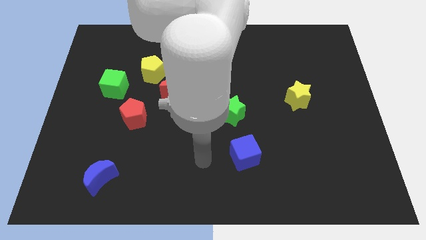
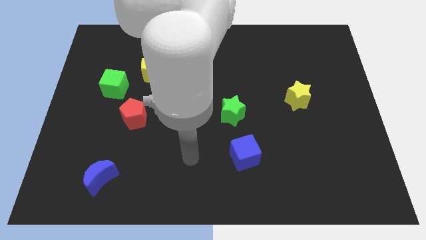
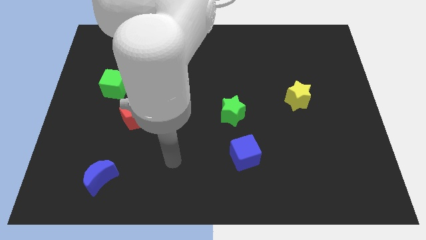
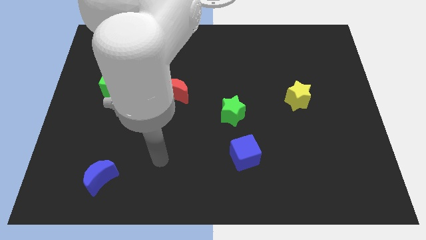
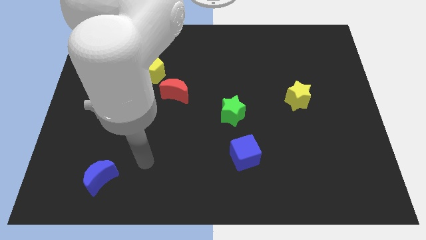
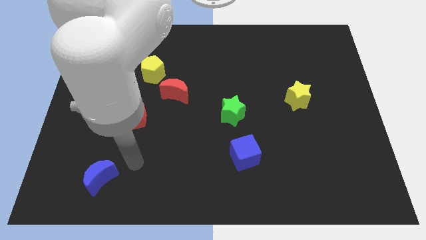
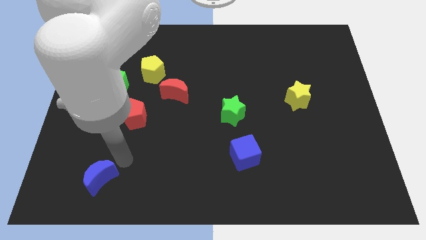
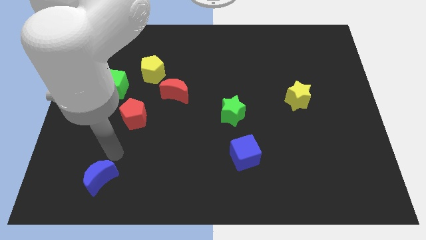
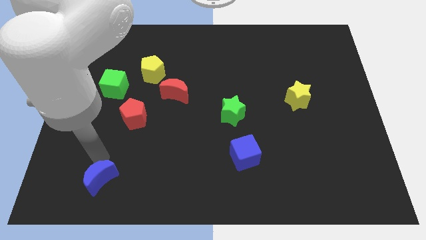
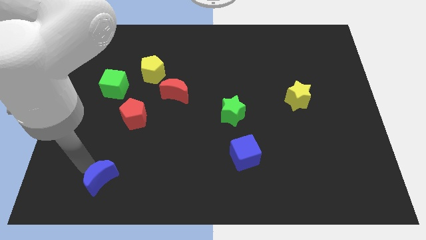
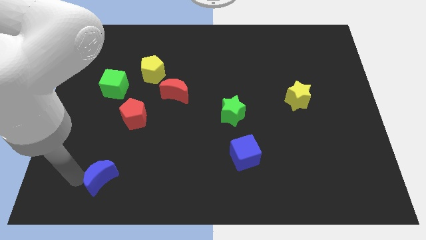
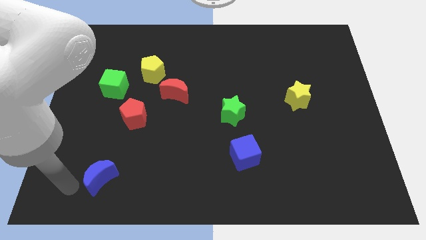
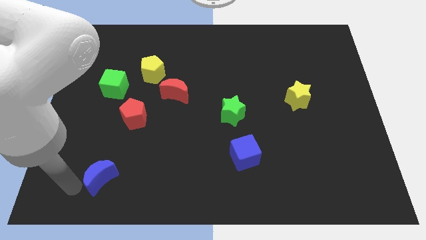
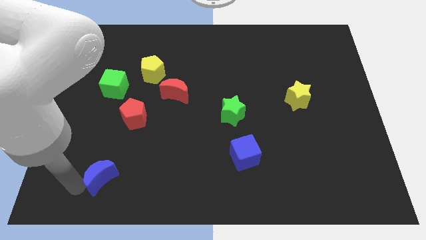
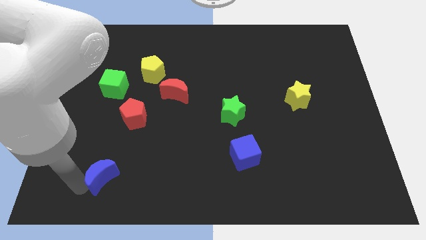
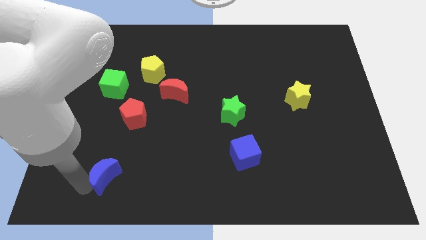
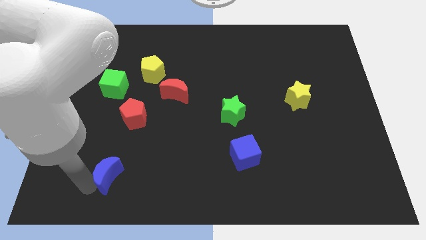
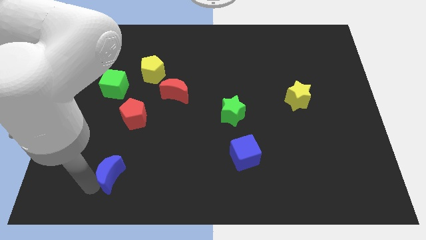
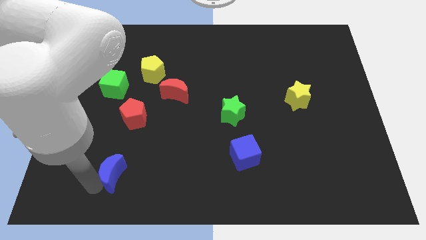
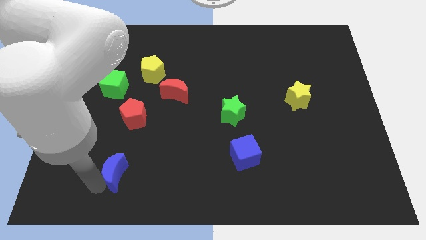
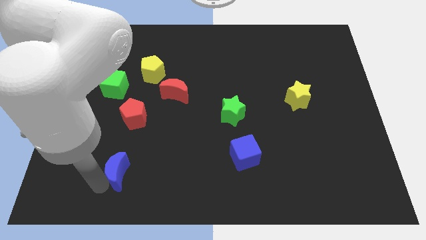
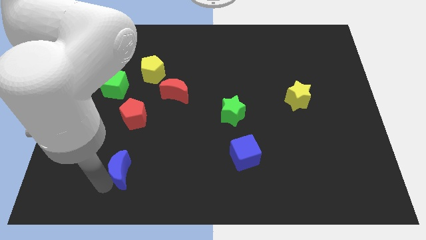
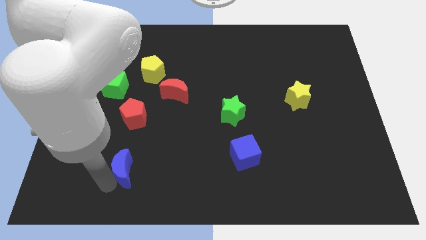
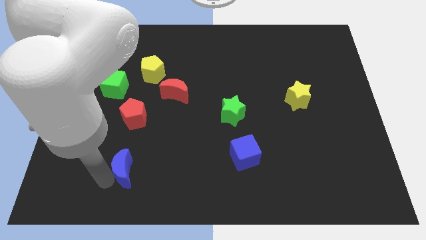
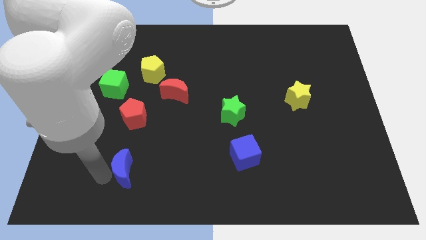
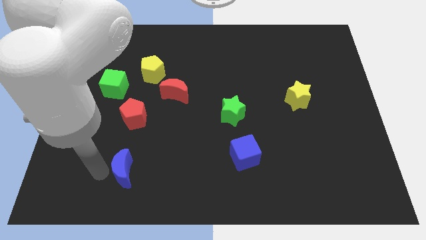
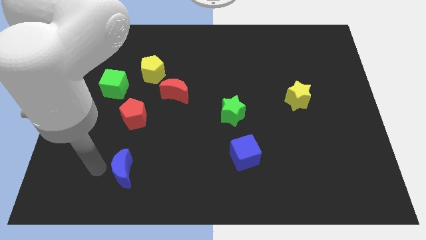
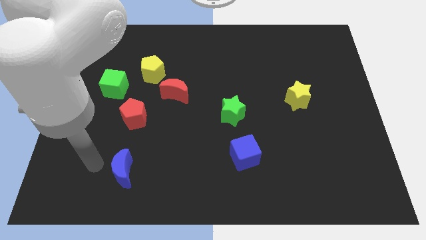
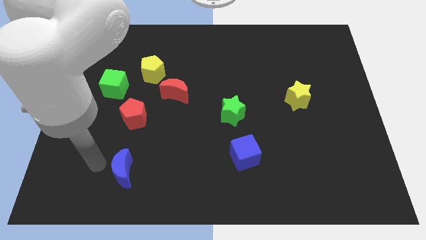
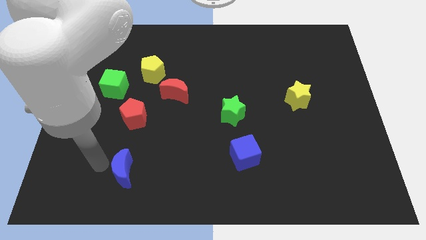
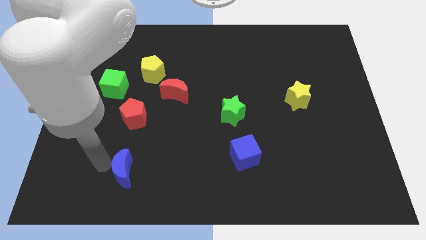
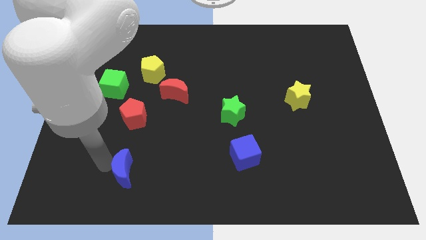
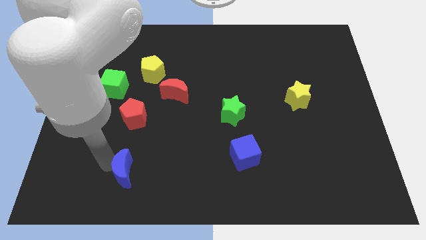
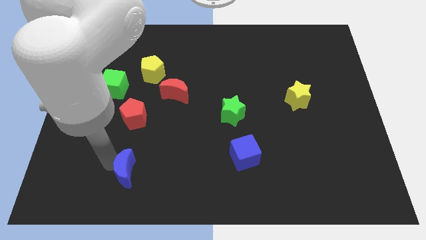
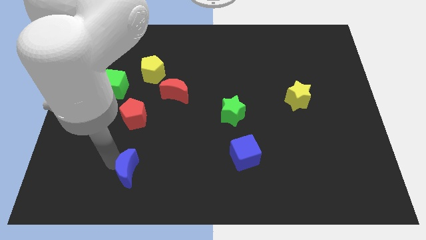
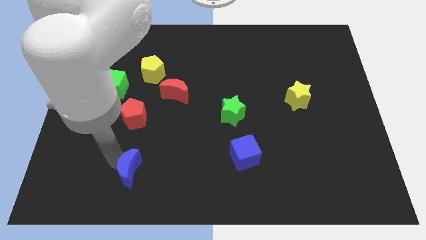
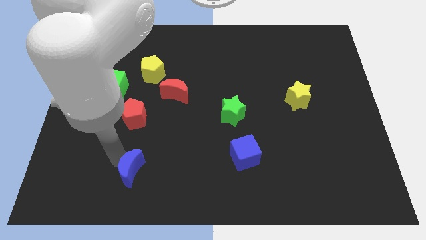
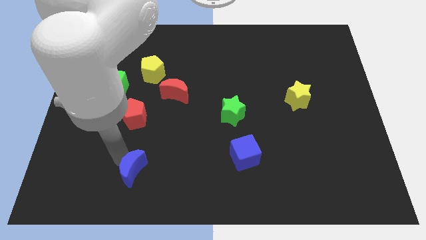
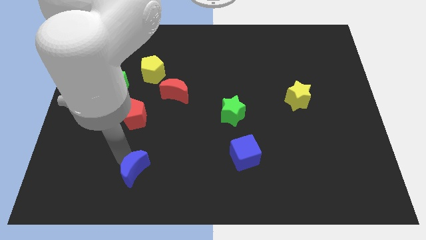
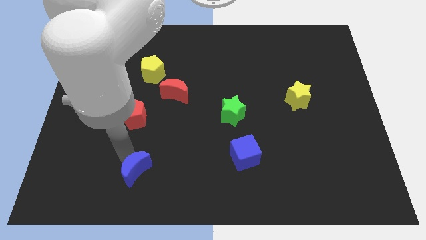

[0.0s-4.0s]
push the blue moon a little to the right

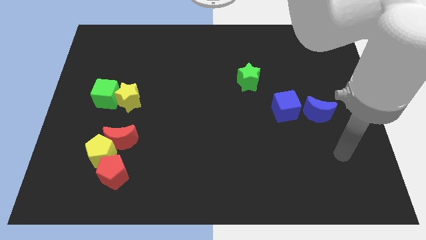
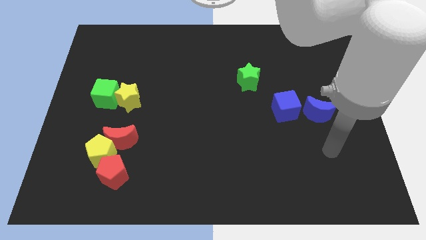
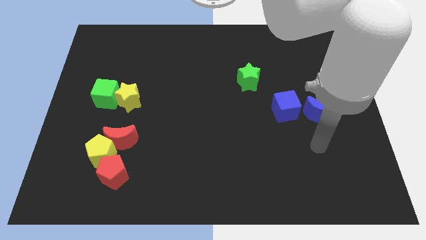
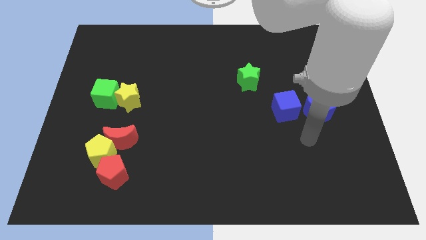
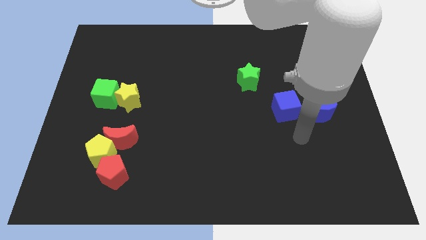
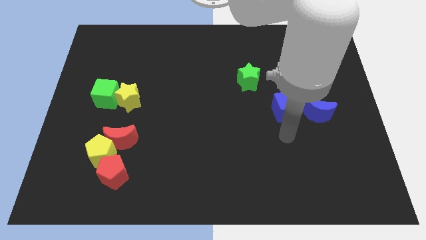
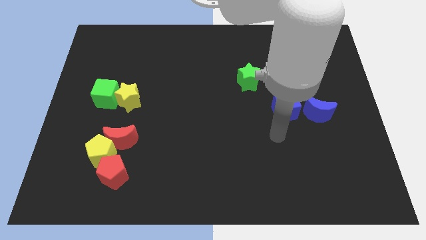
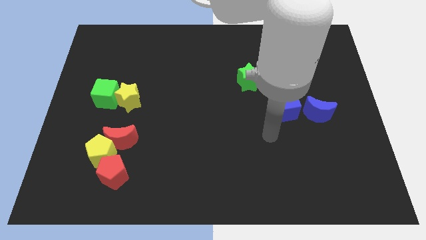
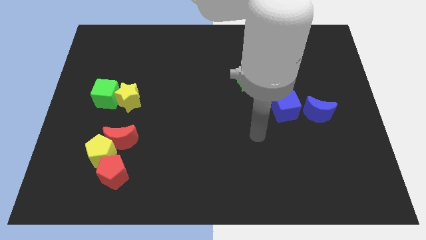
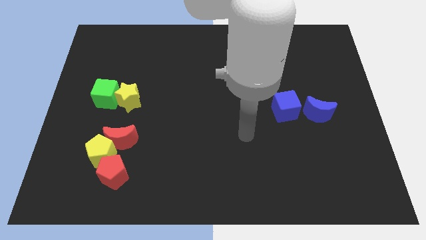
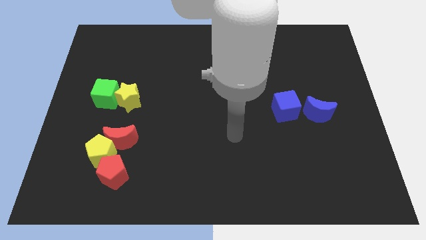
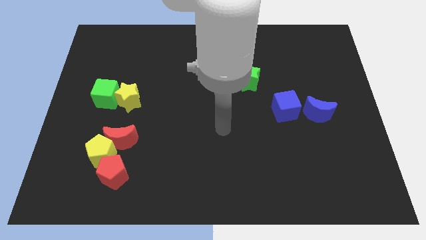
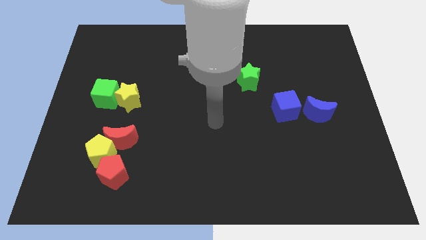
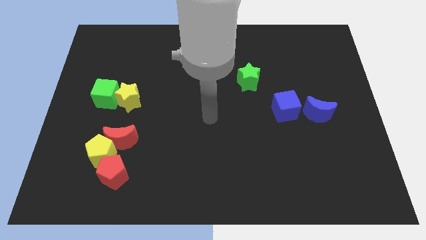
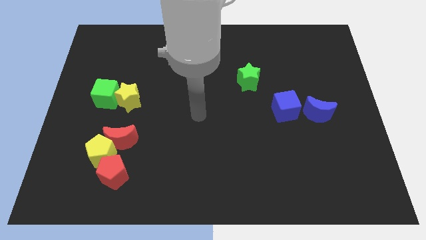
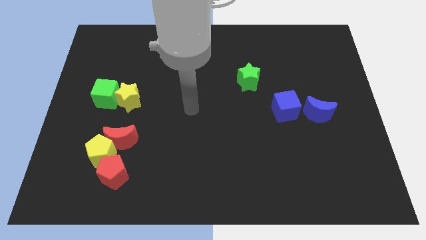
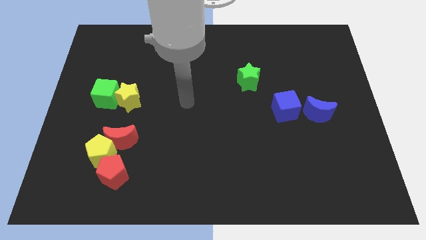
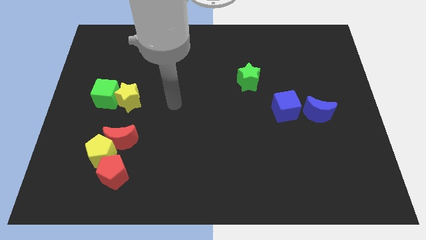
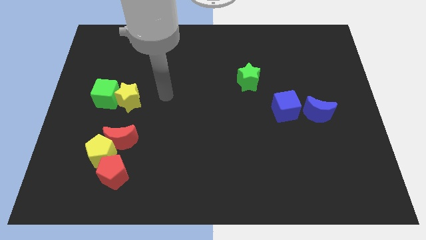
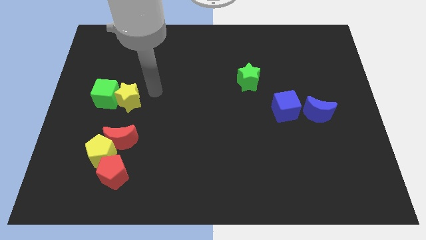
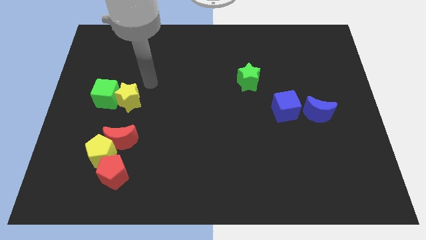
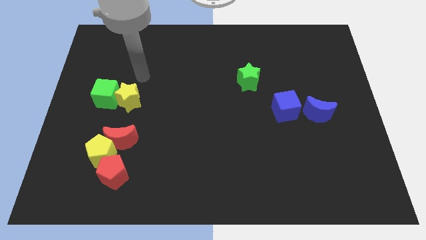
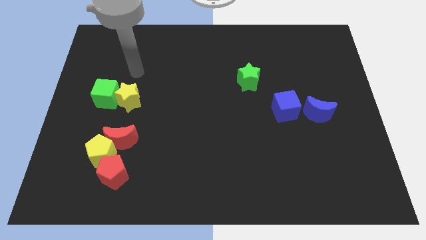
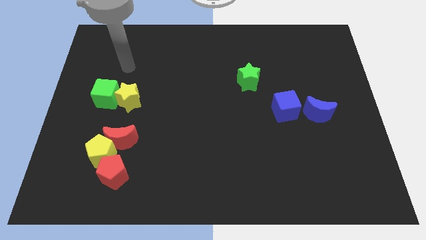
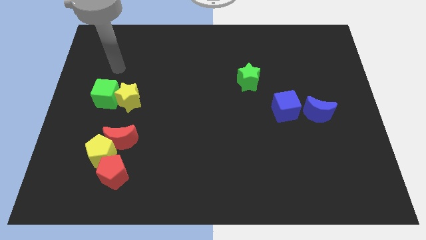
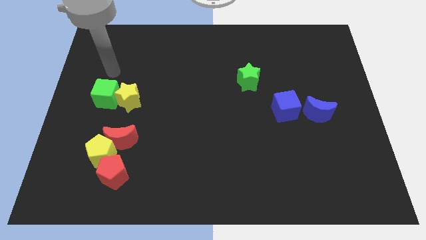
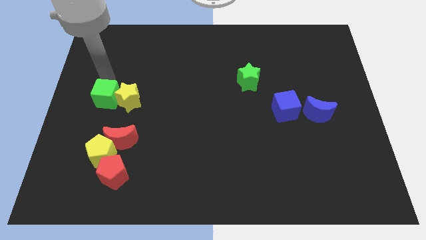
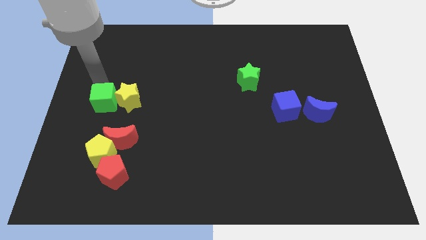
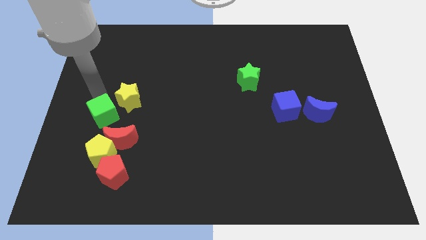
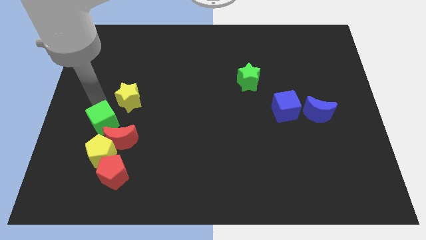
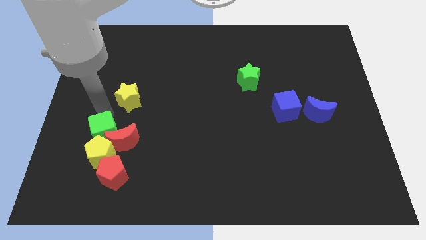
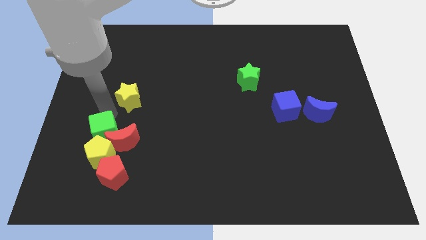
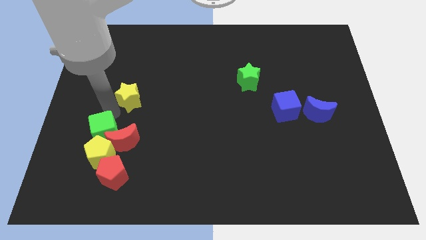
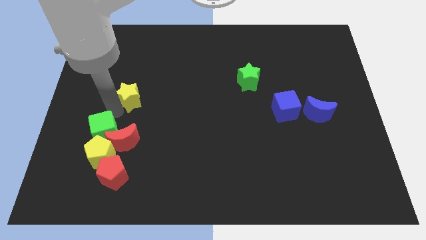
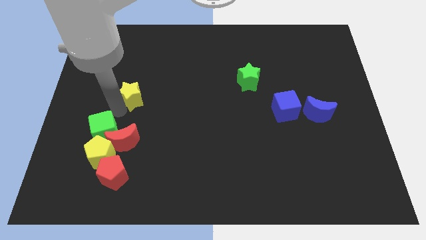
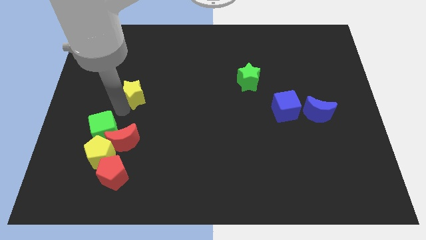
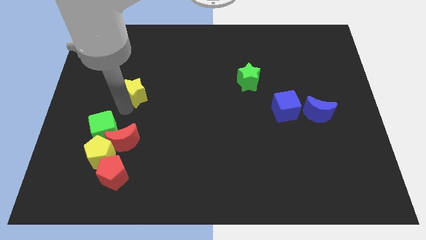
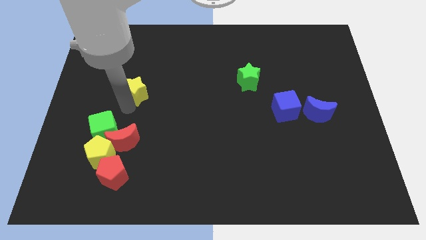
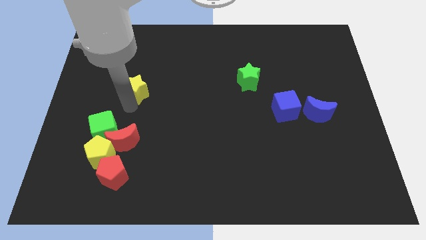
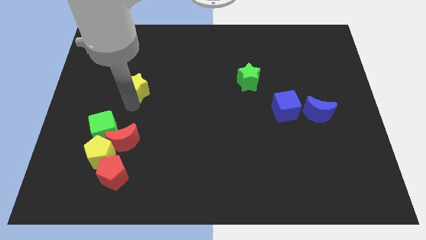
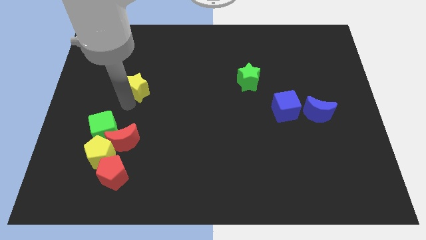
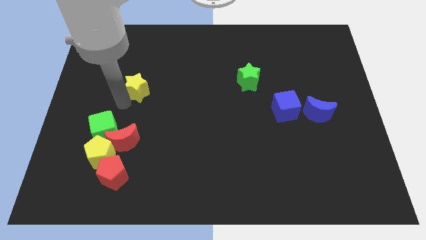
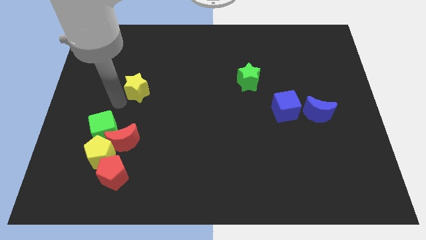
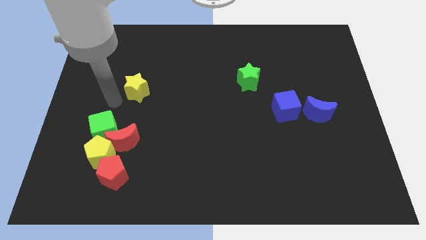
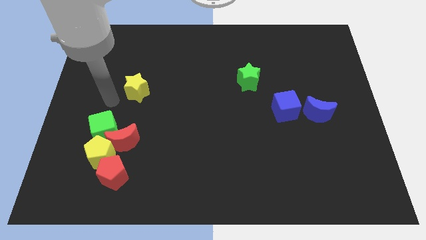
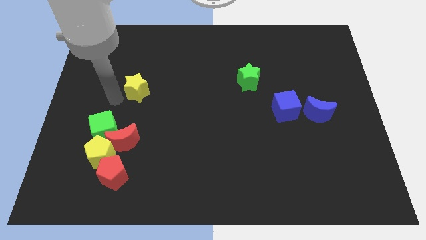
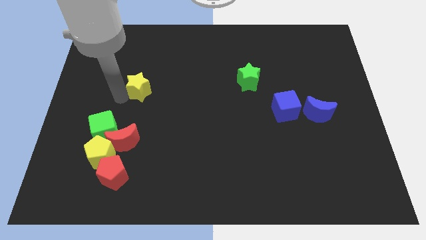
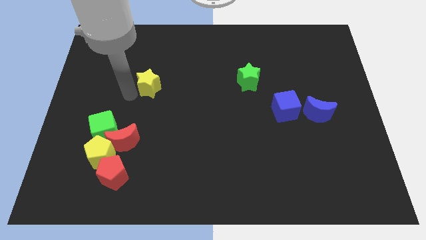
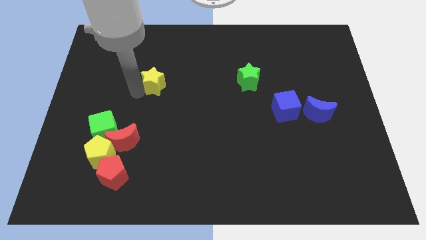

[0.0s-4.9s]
move the yellow star up and right diagonally somewhat
